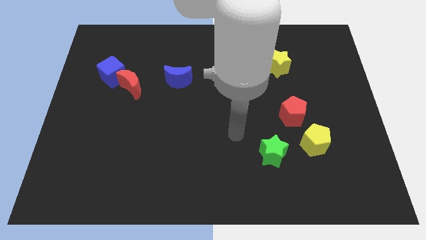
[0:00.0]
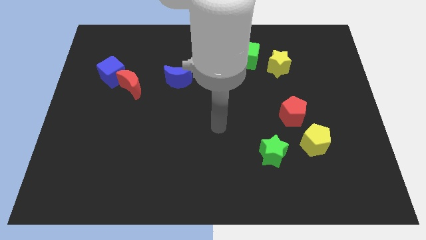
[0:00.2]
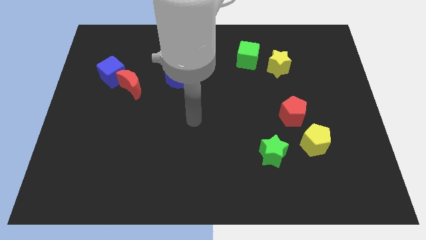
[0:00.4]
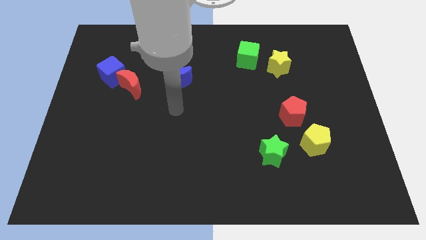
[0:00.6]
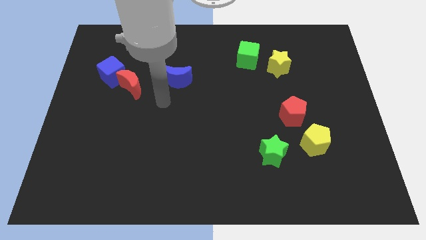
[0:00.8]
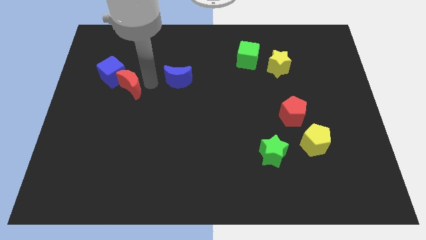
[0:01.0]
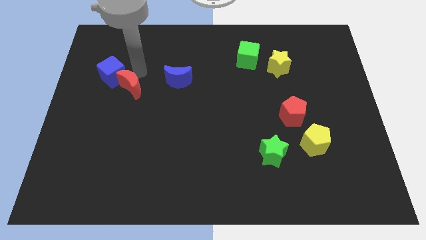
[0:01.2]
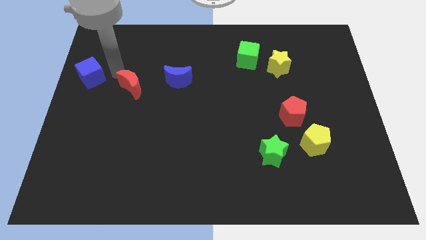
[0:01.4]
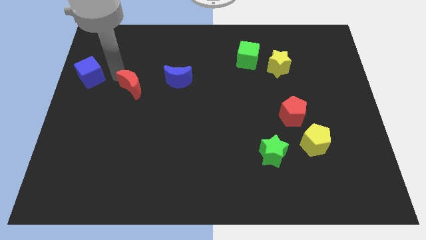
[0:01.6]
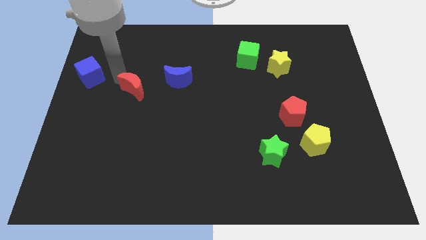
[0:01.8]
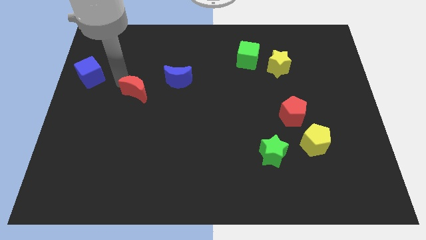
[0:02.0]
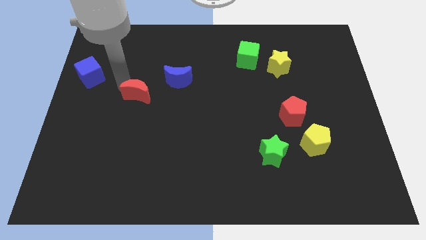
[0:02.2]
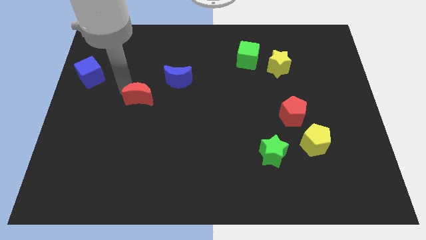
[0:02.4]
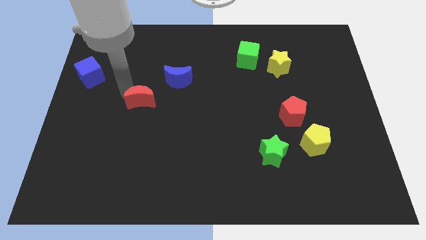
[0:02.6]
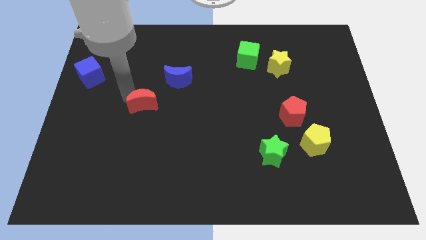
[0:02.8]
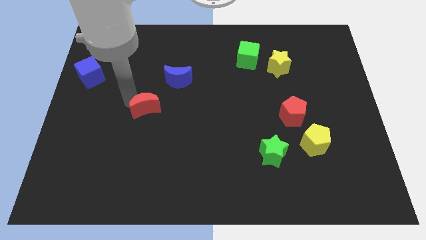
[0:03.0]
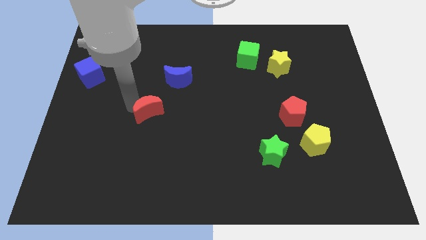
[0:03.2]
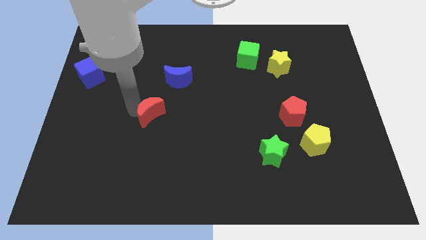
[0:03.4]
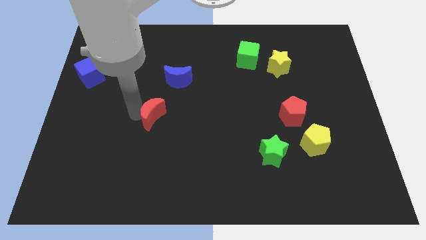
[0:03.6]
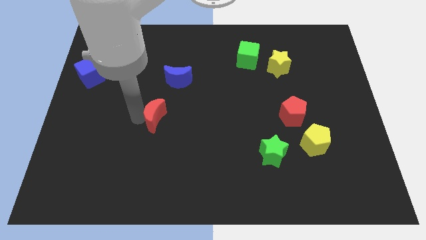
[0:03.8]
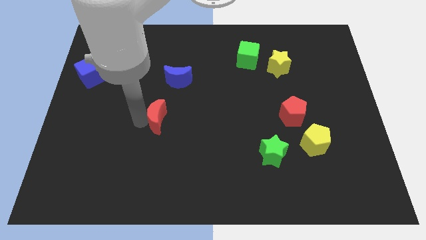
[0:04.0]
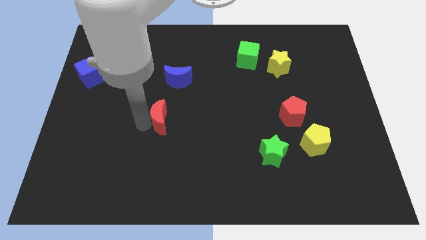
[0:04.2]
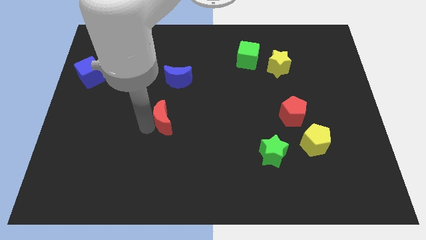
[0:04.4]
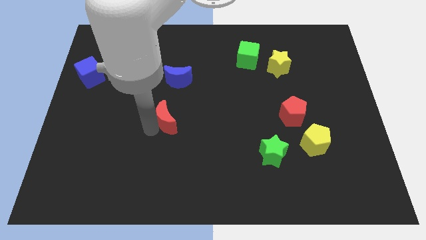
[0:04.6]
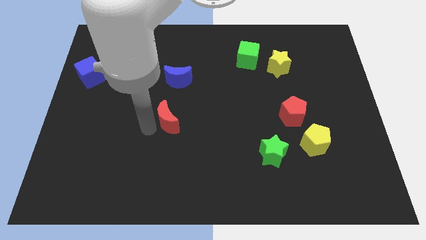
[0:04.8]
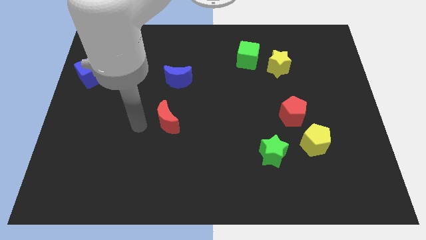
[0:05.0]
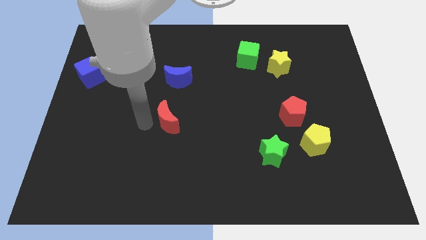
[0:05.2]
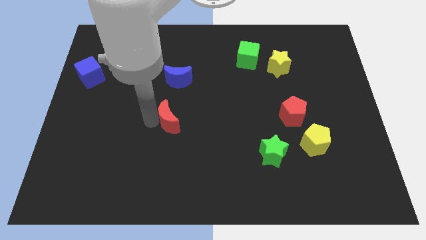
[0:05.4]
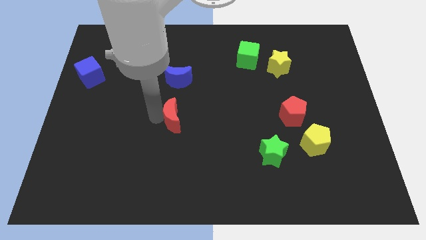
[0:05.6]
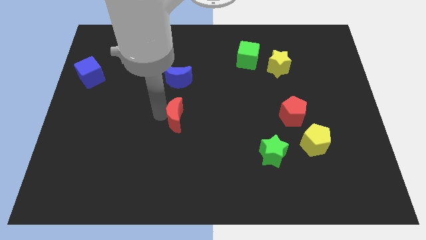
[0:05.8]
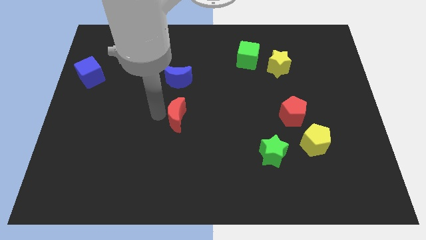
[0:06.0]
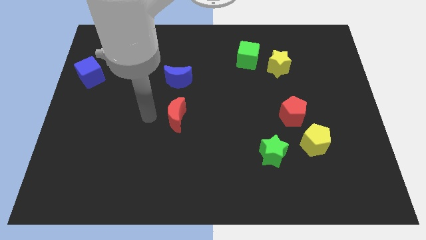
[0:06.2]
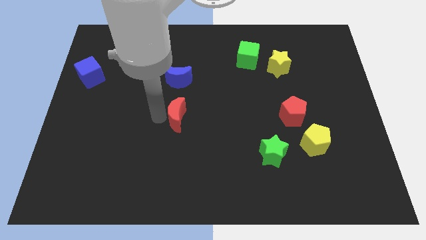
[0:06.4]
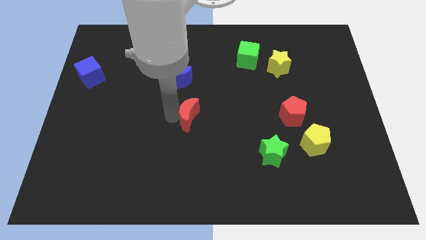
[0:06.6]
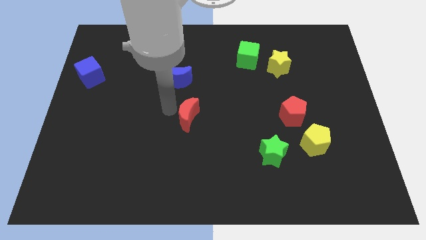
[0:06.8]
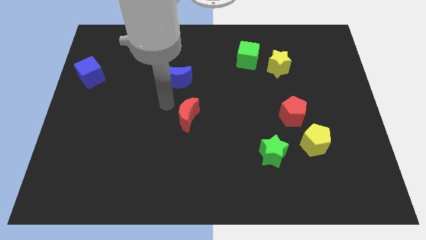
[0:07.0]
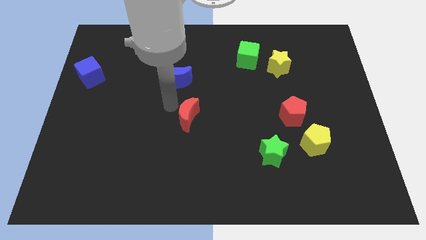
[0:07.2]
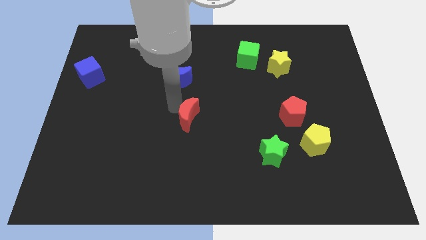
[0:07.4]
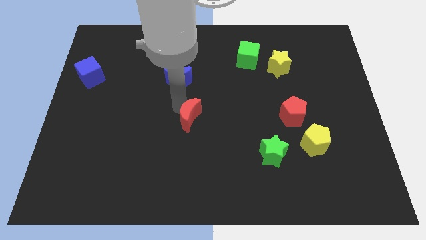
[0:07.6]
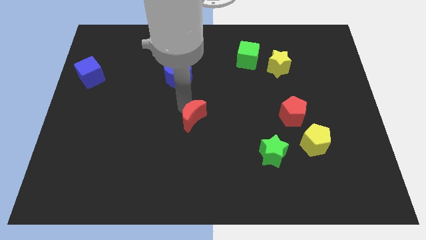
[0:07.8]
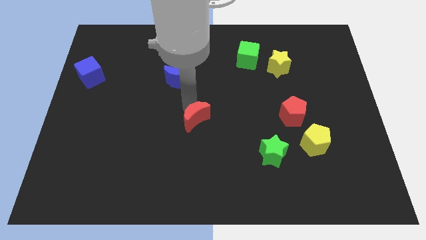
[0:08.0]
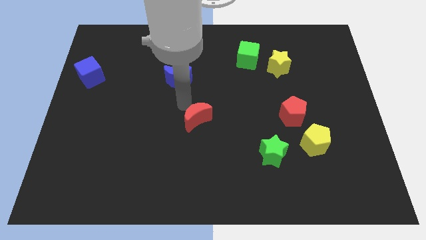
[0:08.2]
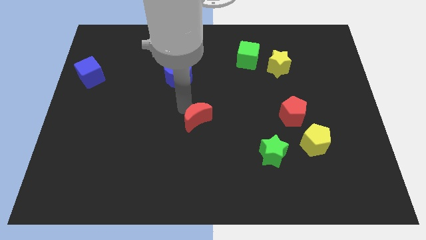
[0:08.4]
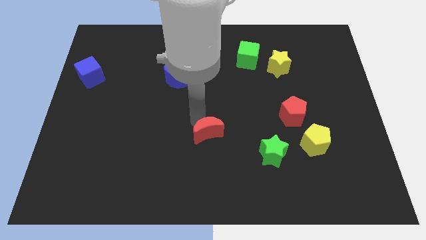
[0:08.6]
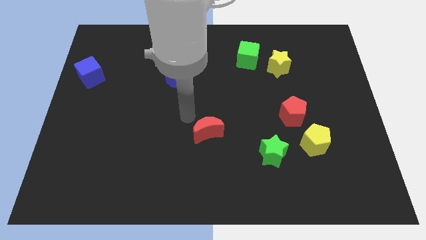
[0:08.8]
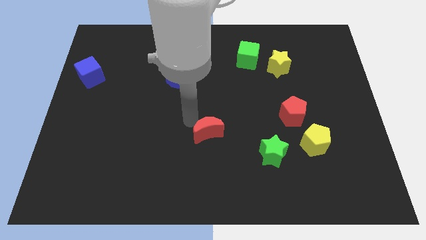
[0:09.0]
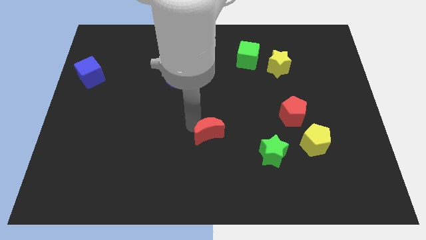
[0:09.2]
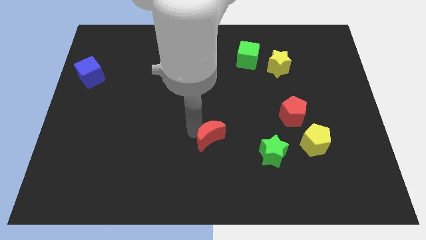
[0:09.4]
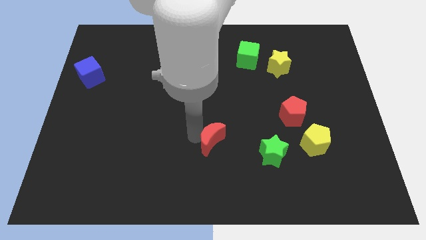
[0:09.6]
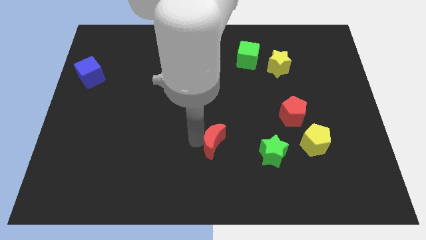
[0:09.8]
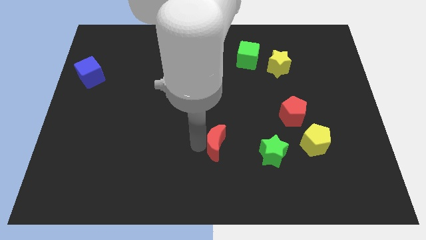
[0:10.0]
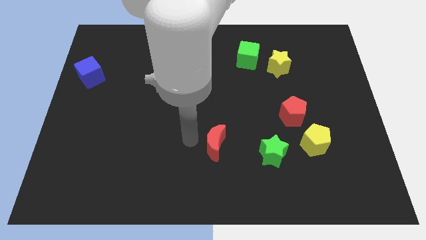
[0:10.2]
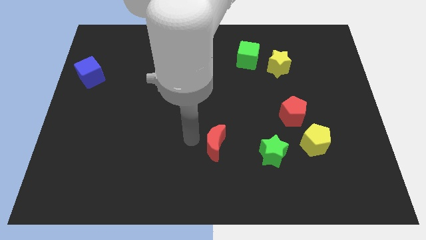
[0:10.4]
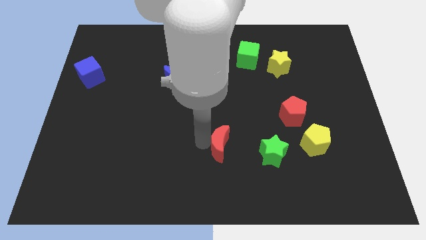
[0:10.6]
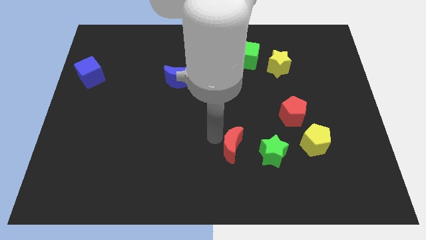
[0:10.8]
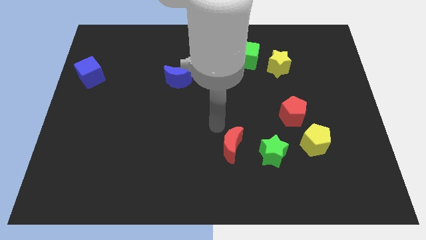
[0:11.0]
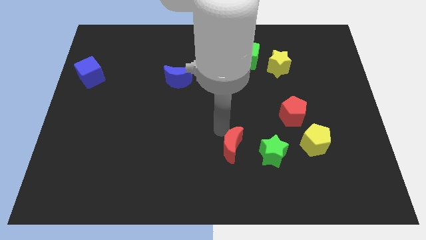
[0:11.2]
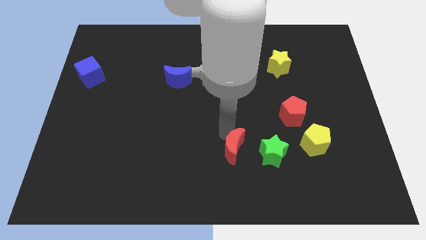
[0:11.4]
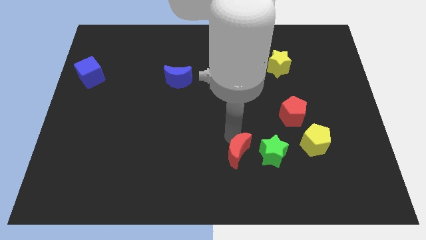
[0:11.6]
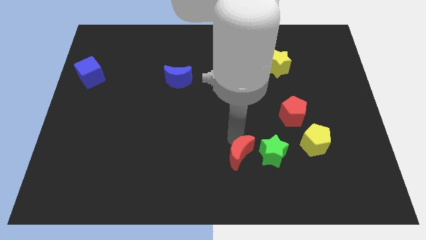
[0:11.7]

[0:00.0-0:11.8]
move the red moon to the bottom left of the green star
